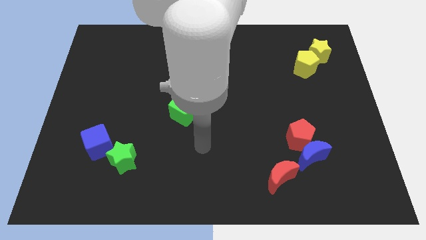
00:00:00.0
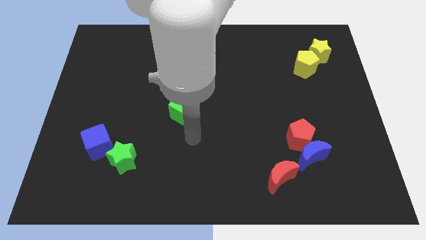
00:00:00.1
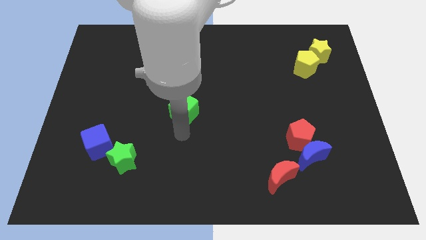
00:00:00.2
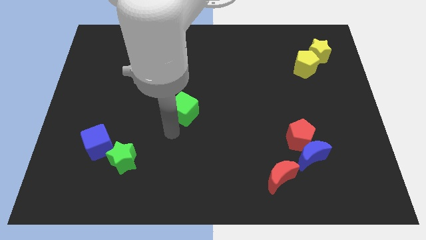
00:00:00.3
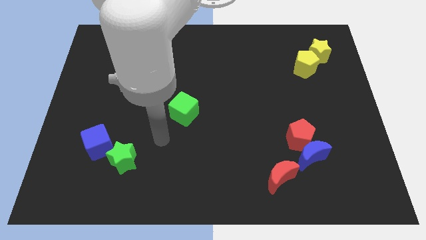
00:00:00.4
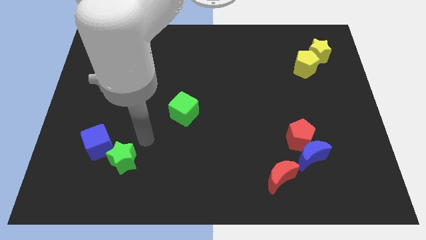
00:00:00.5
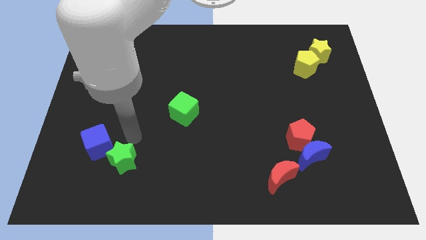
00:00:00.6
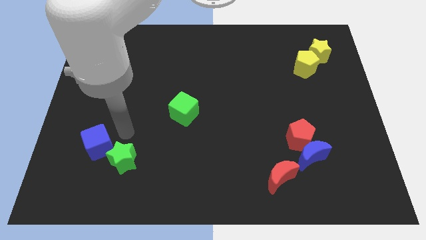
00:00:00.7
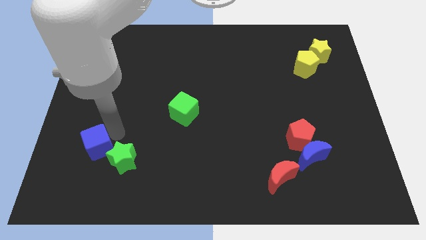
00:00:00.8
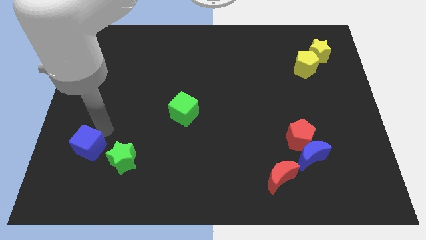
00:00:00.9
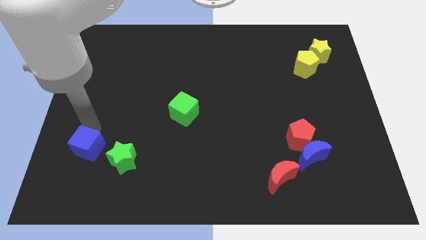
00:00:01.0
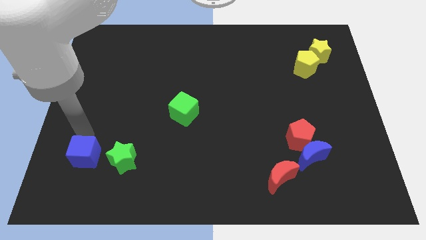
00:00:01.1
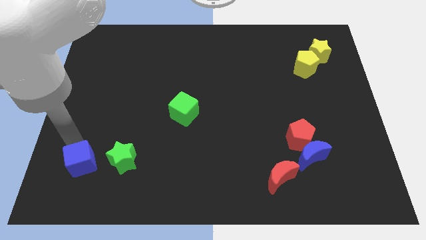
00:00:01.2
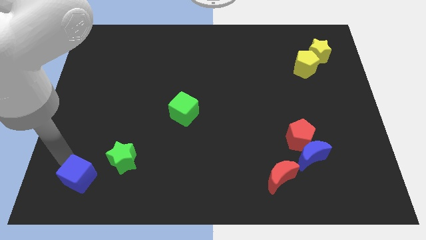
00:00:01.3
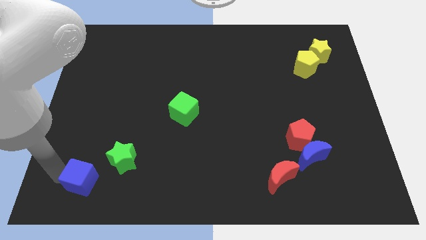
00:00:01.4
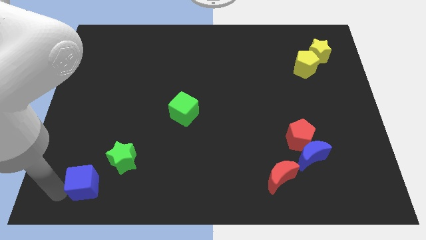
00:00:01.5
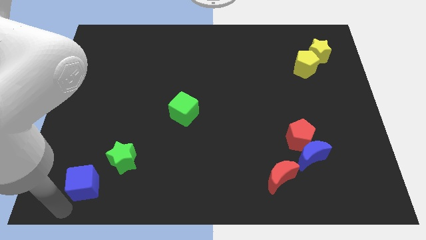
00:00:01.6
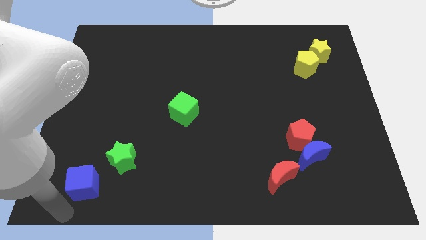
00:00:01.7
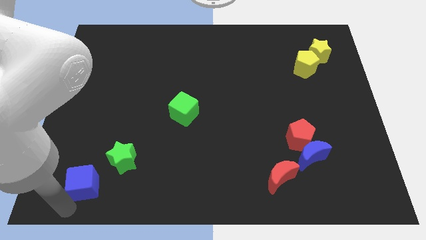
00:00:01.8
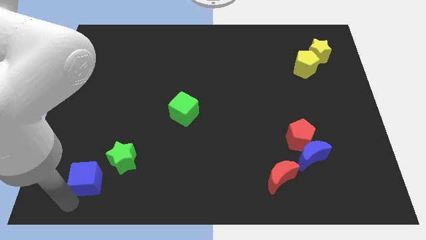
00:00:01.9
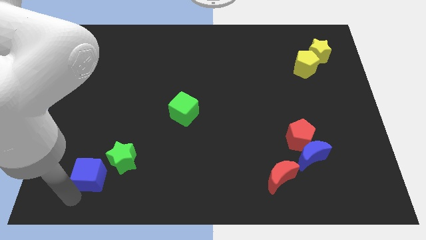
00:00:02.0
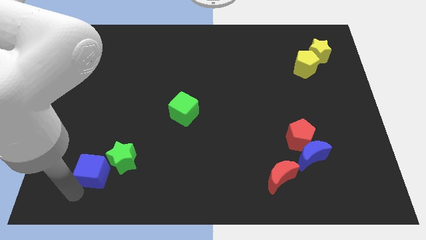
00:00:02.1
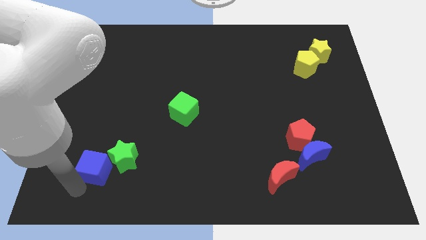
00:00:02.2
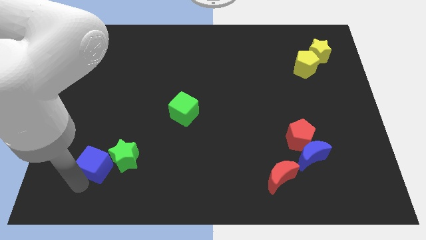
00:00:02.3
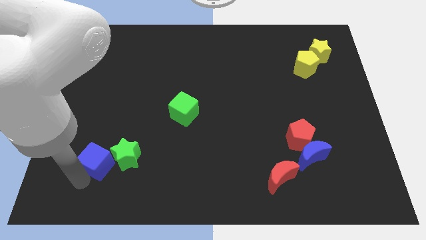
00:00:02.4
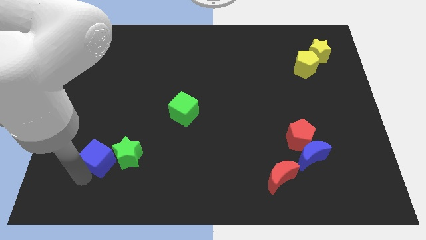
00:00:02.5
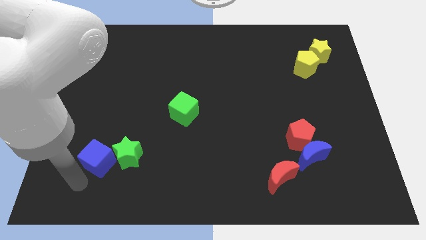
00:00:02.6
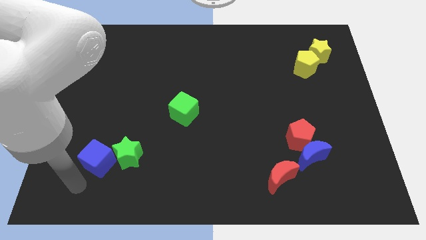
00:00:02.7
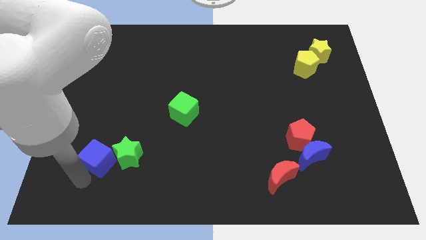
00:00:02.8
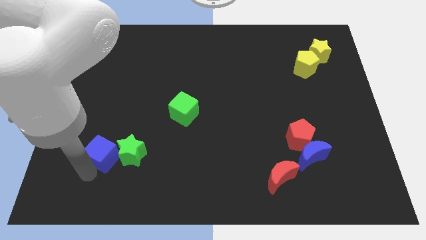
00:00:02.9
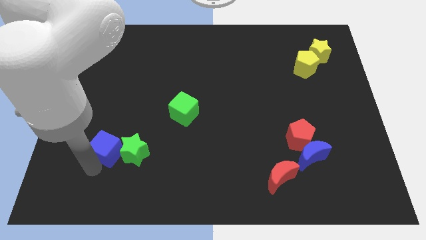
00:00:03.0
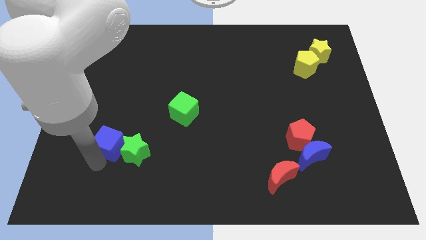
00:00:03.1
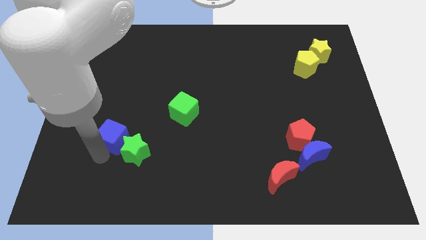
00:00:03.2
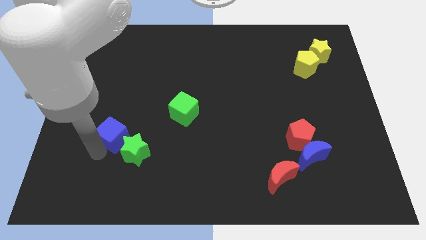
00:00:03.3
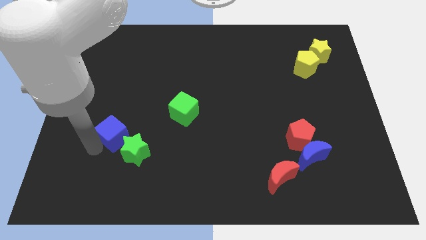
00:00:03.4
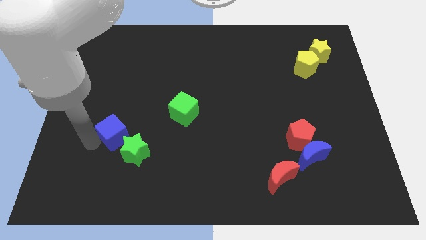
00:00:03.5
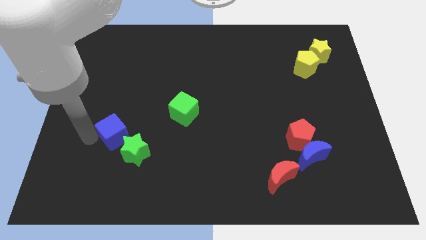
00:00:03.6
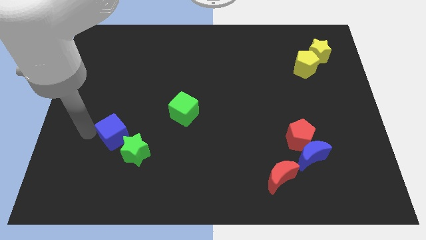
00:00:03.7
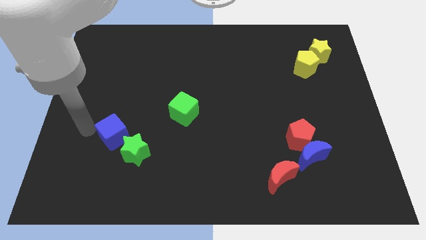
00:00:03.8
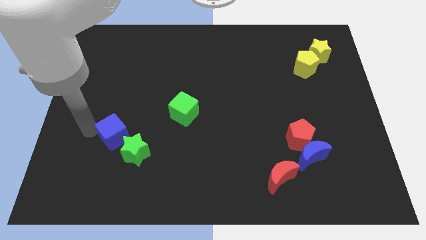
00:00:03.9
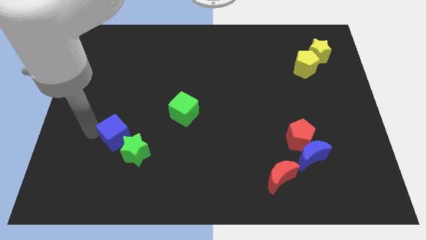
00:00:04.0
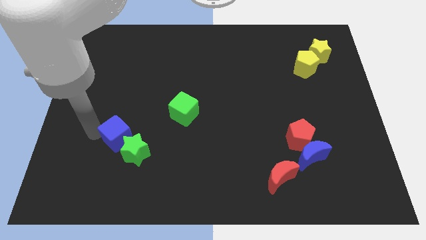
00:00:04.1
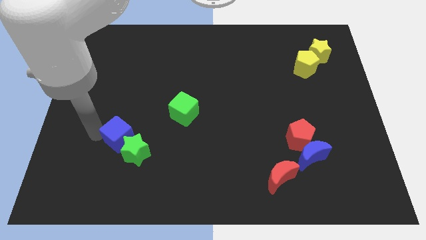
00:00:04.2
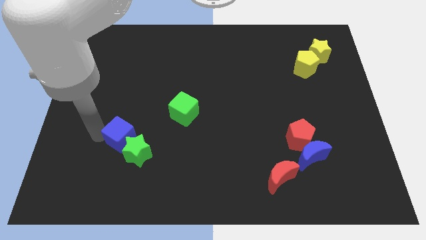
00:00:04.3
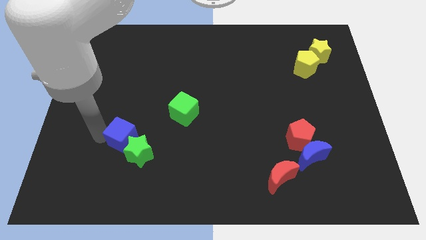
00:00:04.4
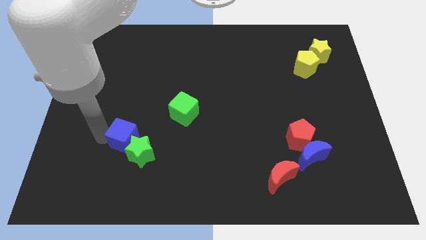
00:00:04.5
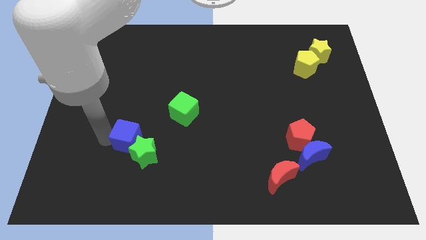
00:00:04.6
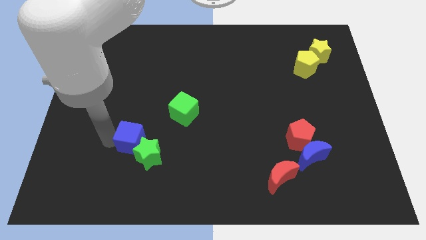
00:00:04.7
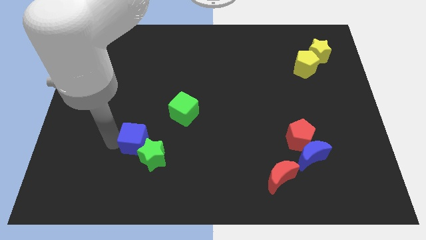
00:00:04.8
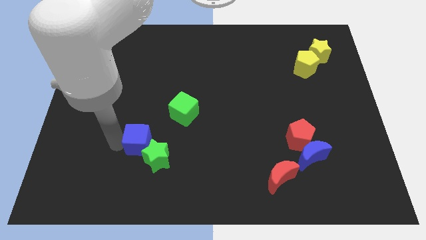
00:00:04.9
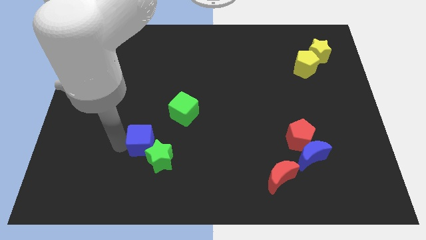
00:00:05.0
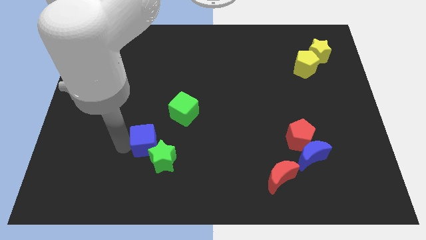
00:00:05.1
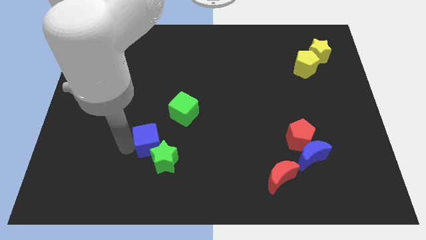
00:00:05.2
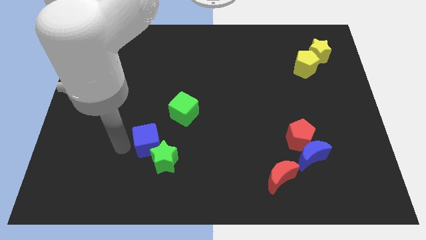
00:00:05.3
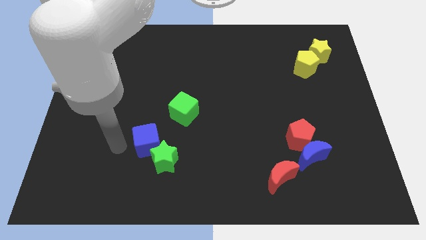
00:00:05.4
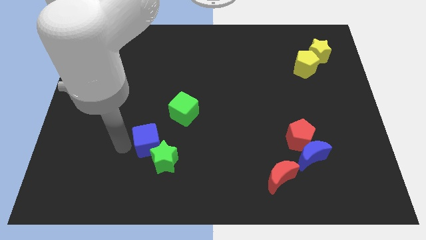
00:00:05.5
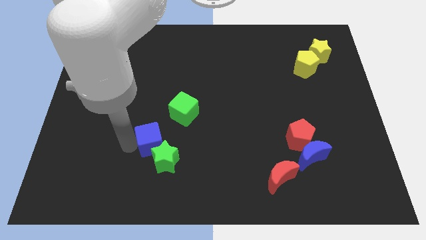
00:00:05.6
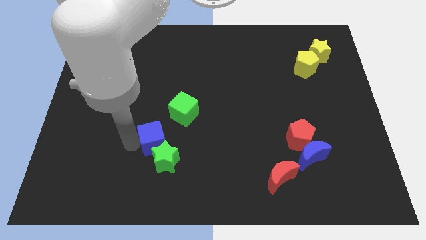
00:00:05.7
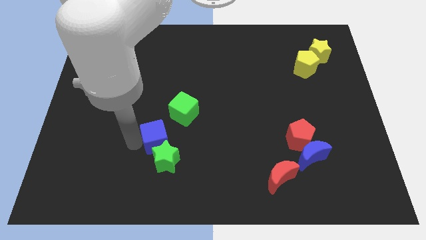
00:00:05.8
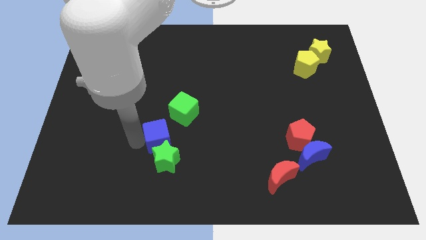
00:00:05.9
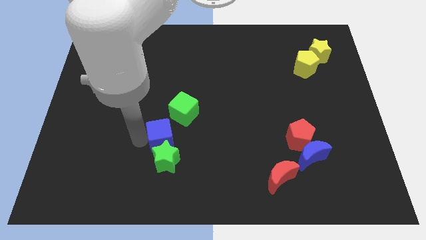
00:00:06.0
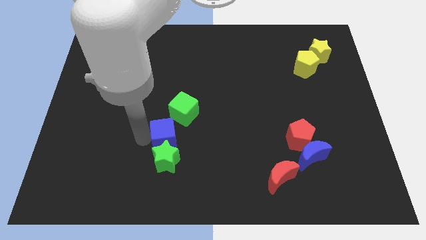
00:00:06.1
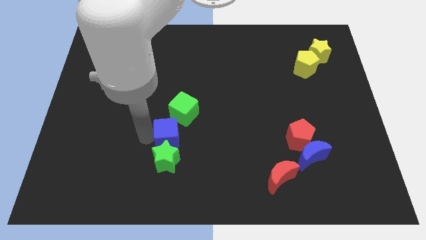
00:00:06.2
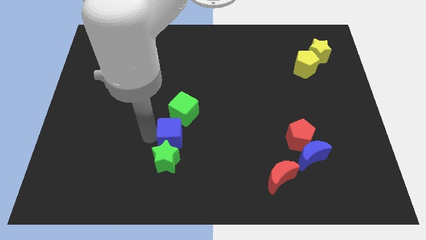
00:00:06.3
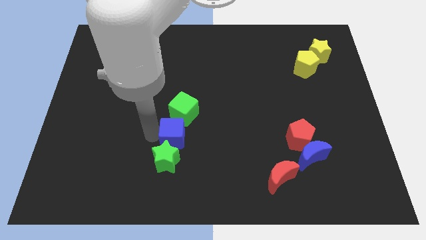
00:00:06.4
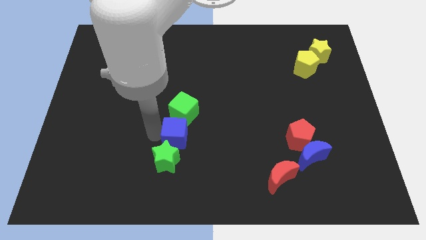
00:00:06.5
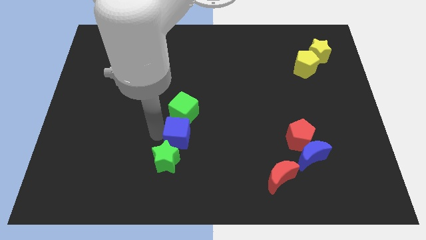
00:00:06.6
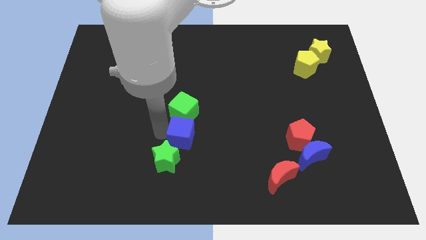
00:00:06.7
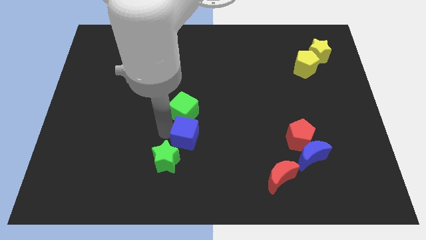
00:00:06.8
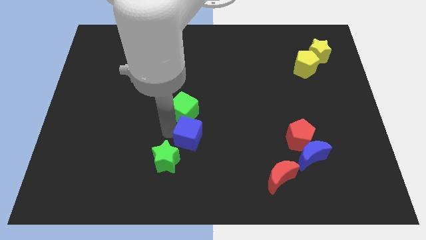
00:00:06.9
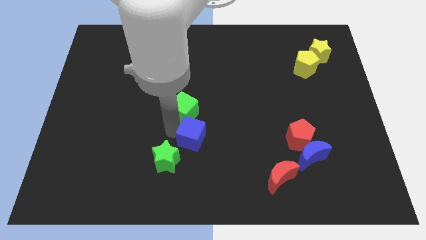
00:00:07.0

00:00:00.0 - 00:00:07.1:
move the blue cube right

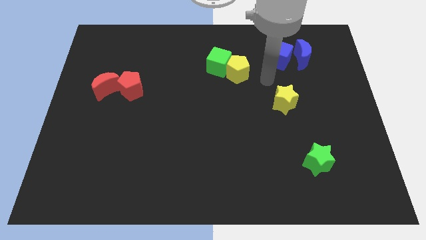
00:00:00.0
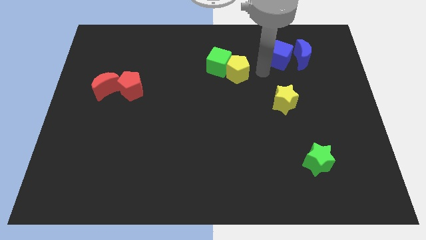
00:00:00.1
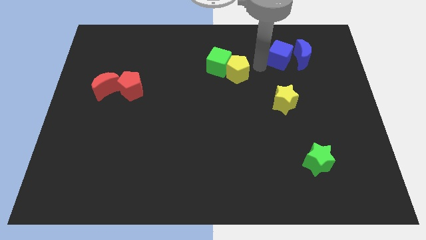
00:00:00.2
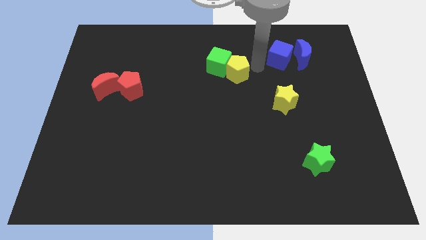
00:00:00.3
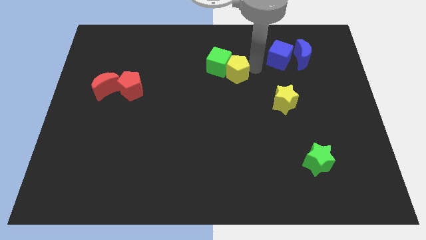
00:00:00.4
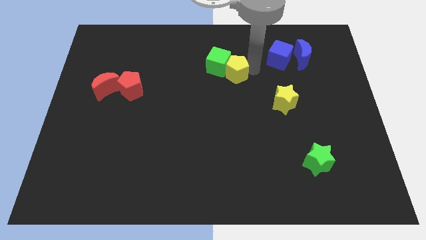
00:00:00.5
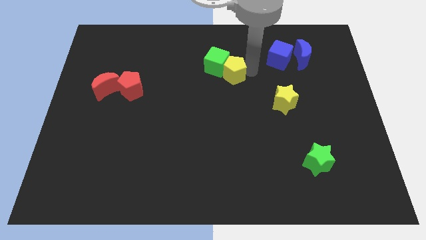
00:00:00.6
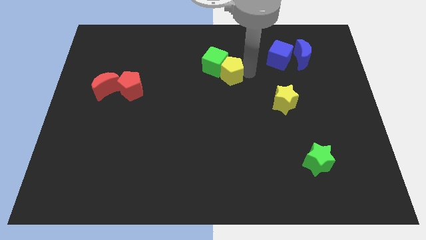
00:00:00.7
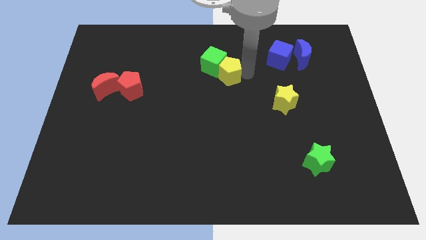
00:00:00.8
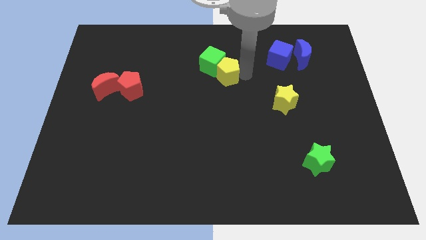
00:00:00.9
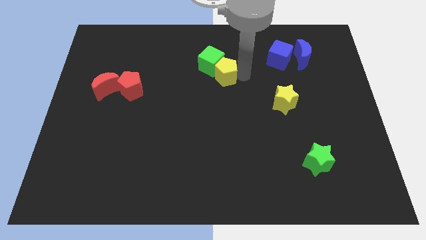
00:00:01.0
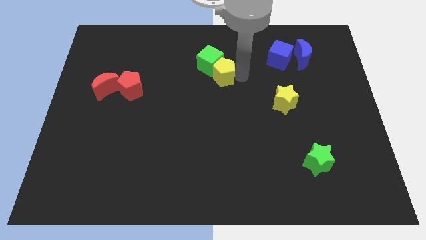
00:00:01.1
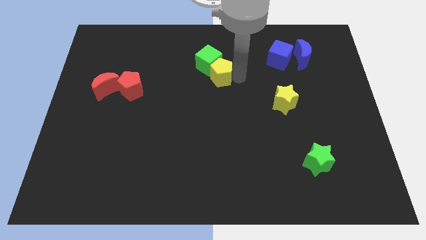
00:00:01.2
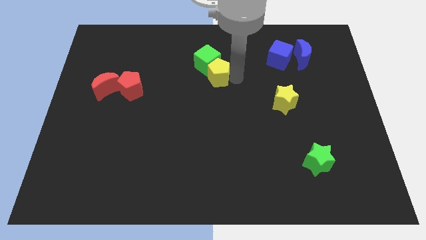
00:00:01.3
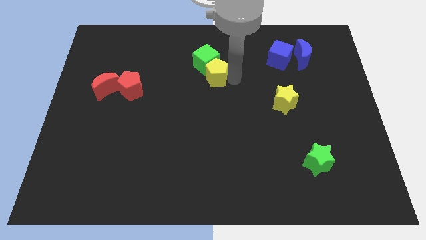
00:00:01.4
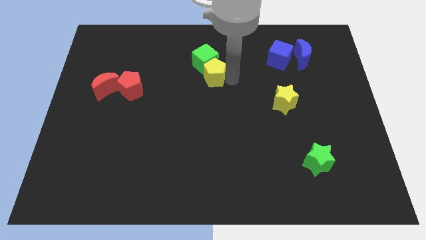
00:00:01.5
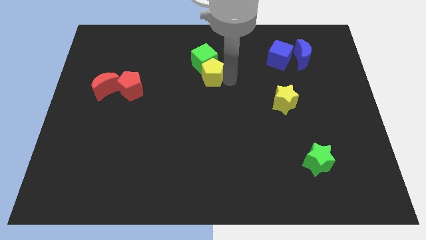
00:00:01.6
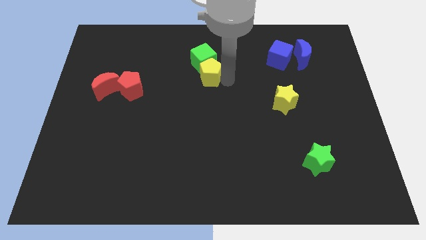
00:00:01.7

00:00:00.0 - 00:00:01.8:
slide the yellow pentagon to the left a bit
